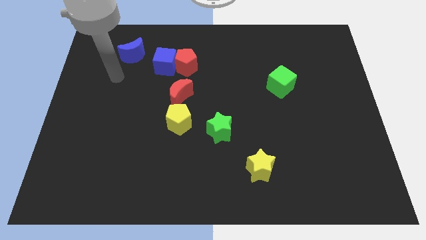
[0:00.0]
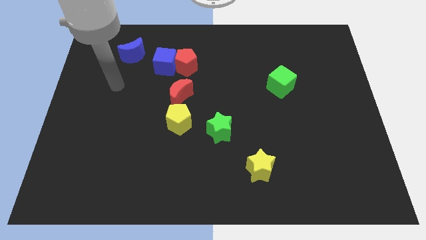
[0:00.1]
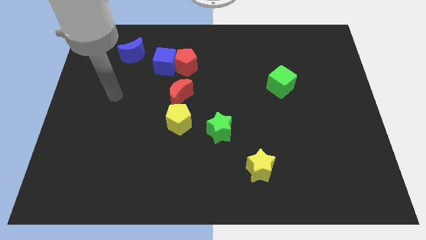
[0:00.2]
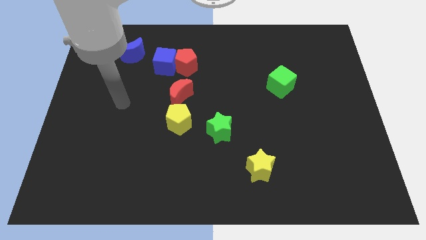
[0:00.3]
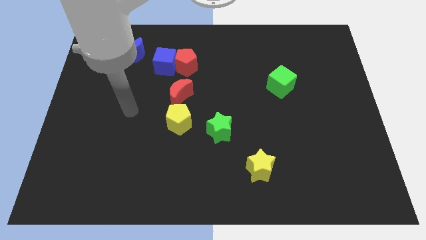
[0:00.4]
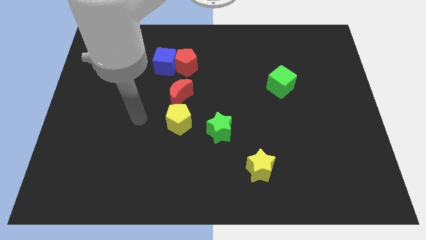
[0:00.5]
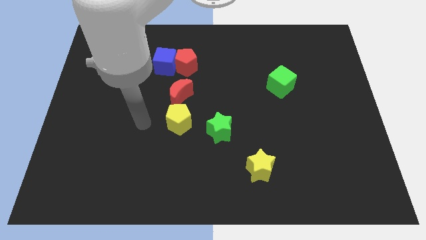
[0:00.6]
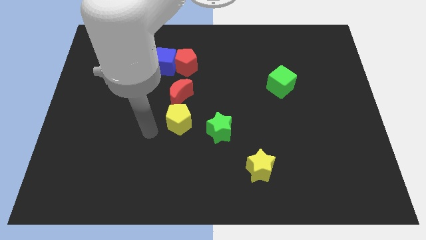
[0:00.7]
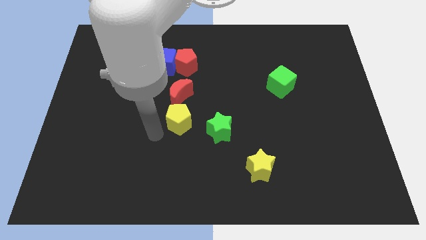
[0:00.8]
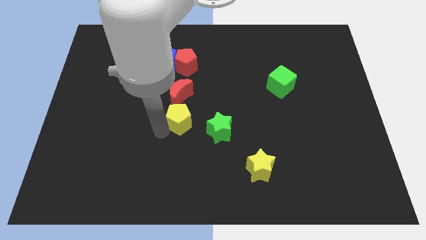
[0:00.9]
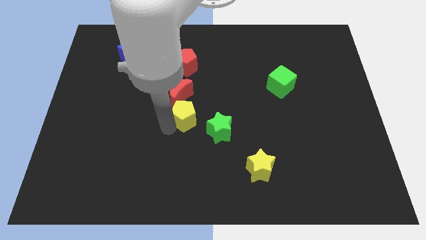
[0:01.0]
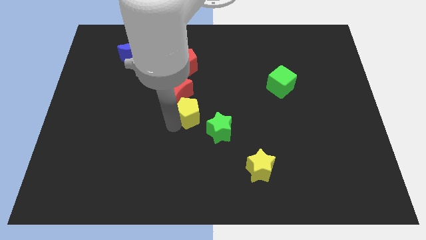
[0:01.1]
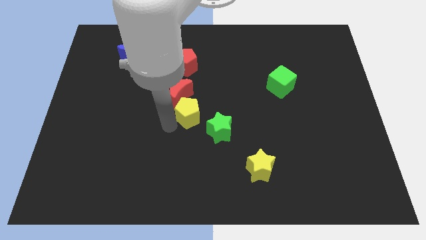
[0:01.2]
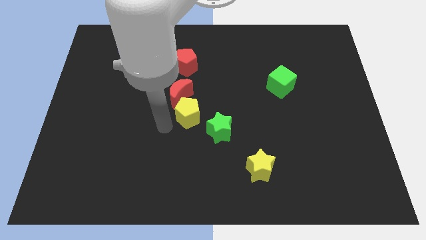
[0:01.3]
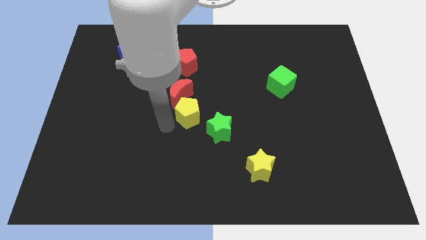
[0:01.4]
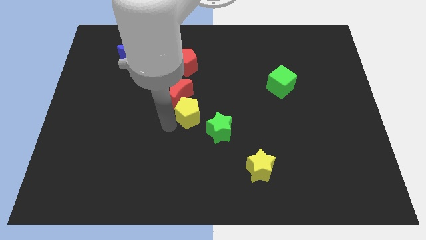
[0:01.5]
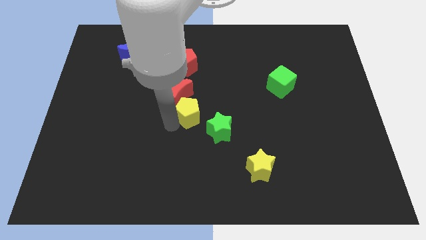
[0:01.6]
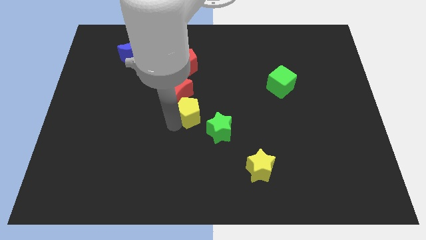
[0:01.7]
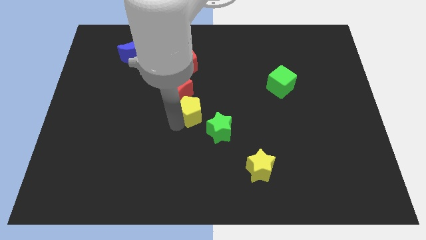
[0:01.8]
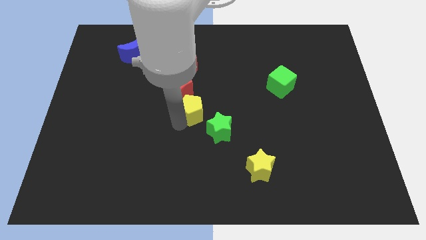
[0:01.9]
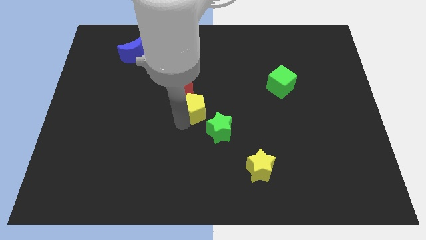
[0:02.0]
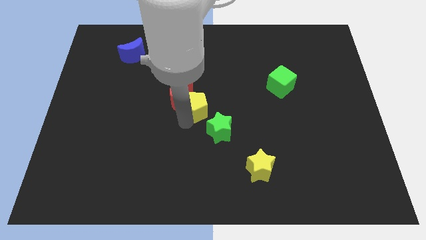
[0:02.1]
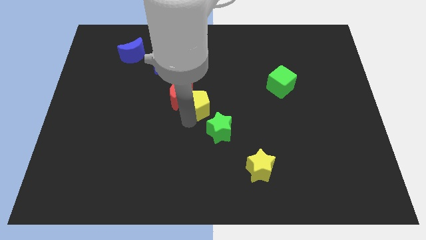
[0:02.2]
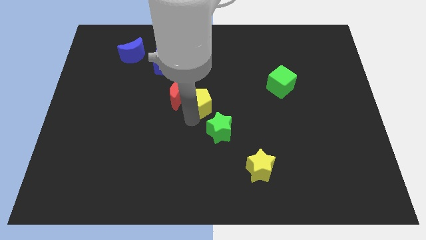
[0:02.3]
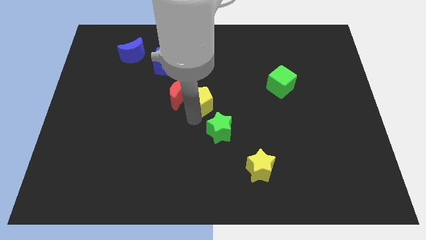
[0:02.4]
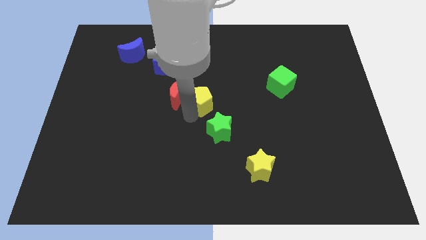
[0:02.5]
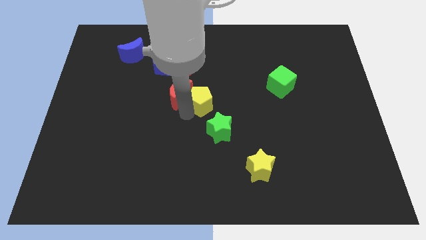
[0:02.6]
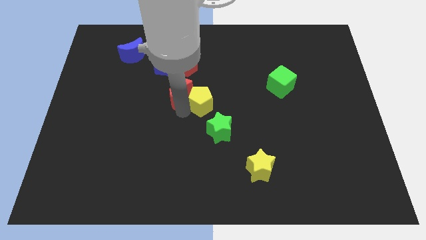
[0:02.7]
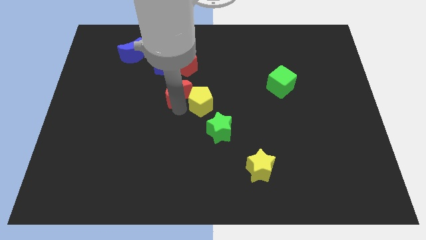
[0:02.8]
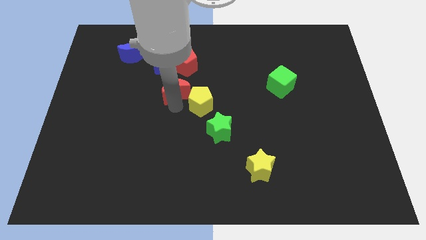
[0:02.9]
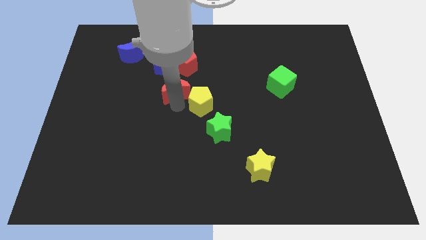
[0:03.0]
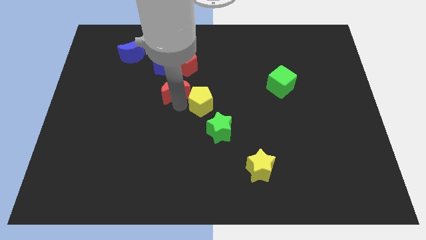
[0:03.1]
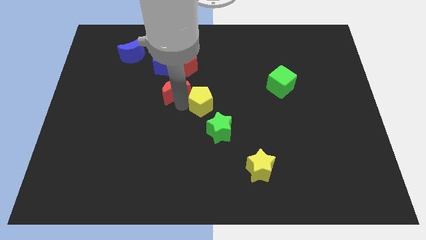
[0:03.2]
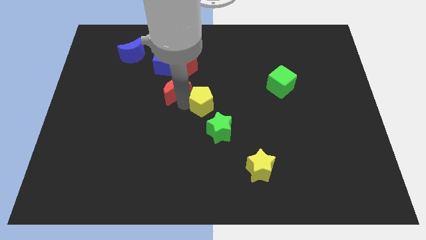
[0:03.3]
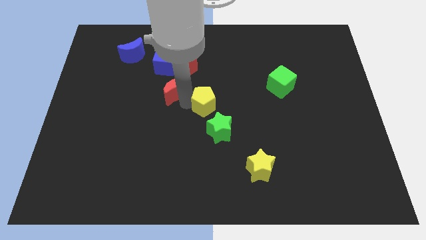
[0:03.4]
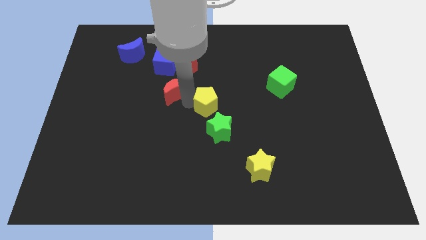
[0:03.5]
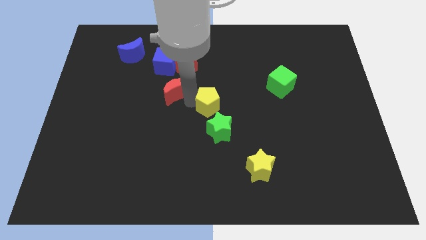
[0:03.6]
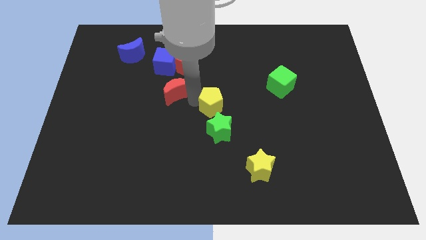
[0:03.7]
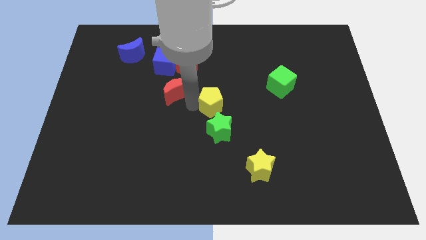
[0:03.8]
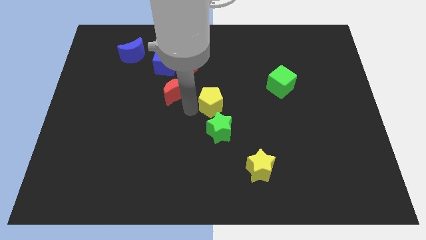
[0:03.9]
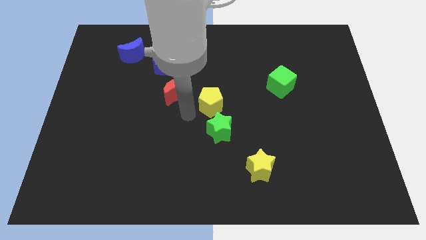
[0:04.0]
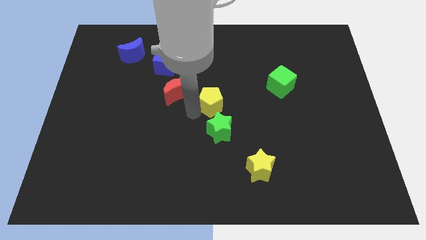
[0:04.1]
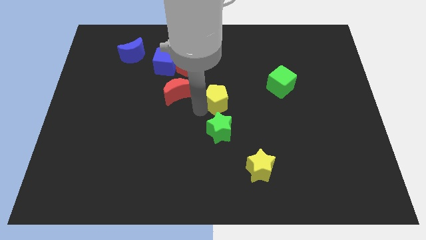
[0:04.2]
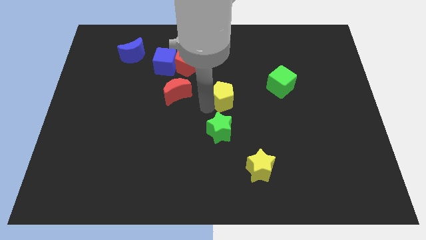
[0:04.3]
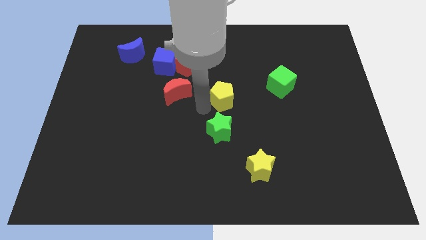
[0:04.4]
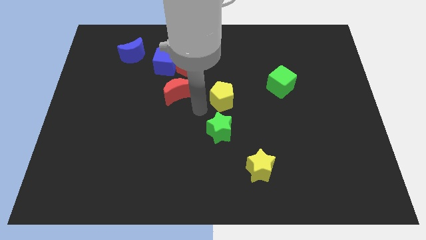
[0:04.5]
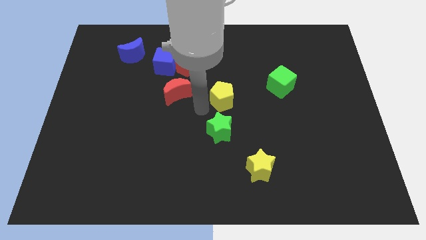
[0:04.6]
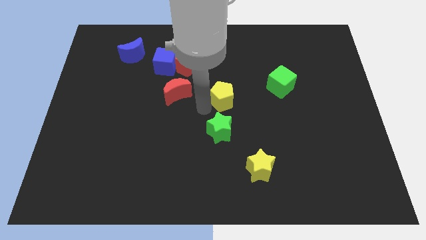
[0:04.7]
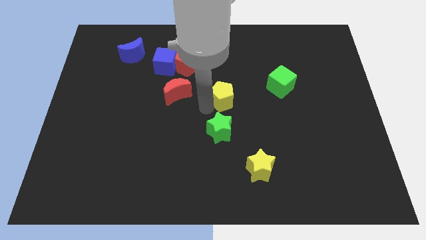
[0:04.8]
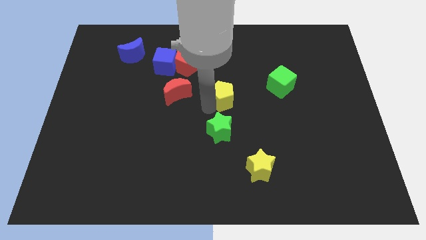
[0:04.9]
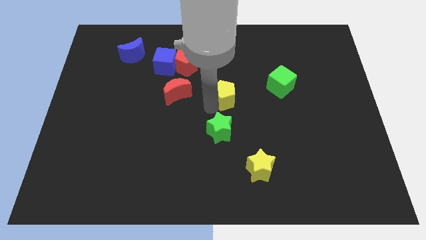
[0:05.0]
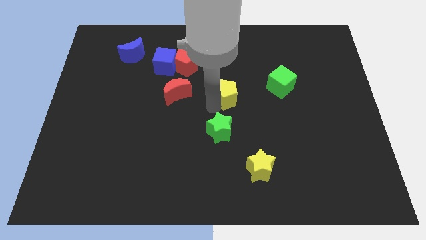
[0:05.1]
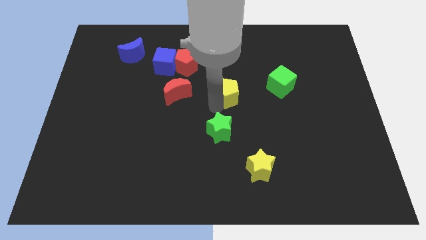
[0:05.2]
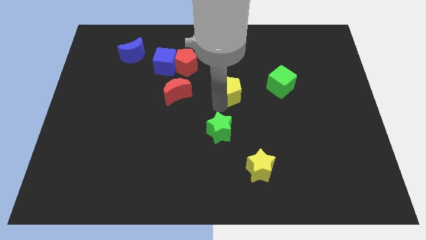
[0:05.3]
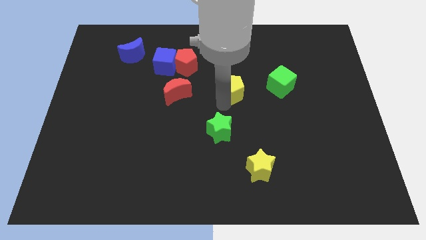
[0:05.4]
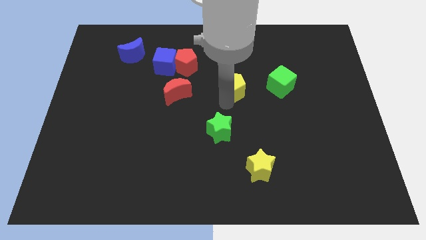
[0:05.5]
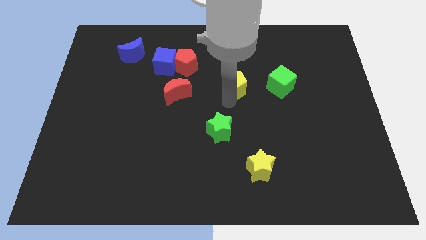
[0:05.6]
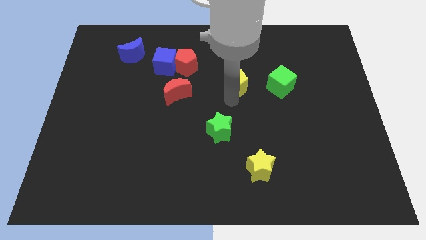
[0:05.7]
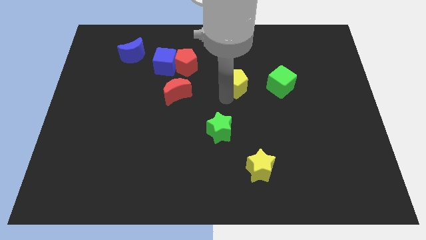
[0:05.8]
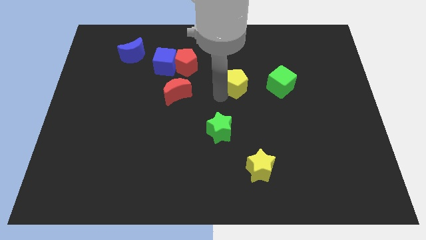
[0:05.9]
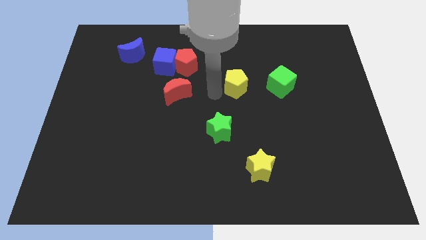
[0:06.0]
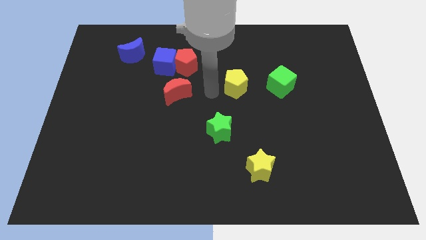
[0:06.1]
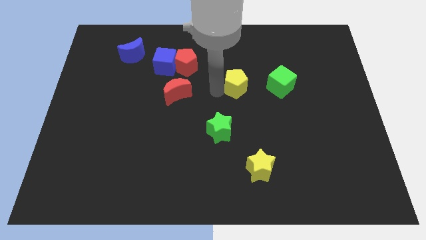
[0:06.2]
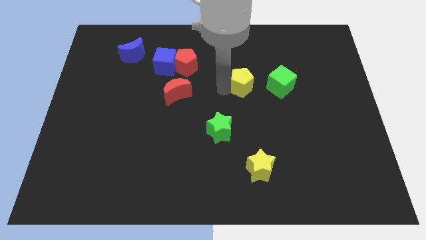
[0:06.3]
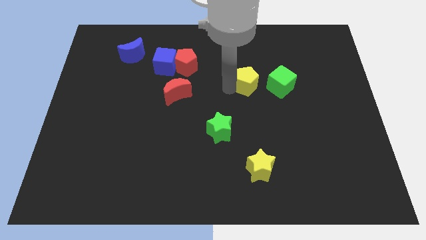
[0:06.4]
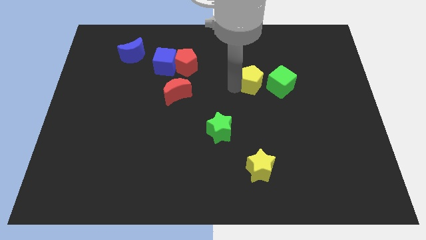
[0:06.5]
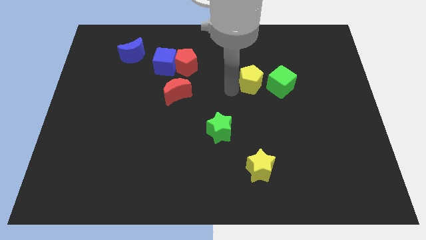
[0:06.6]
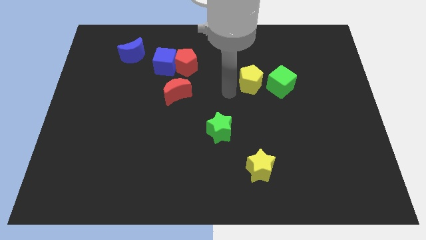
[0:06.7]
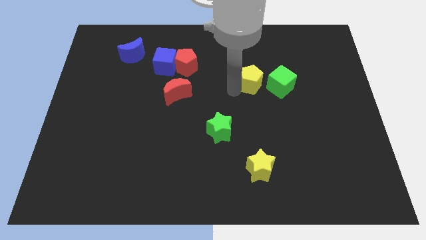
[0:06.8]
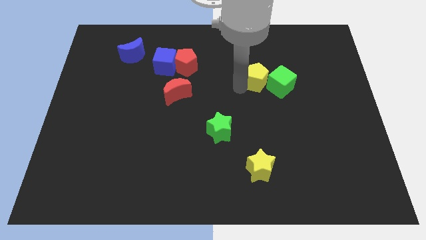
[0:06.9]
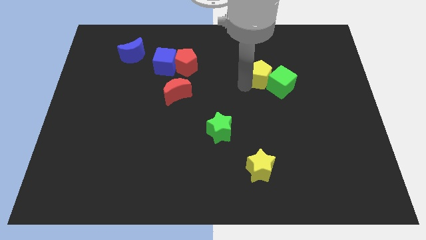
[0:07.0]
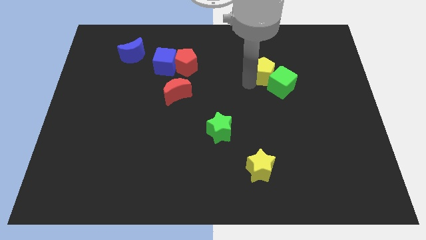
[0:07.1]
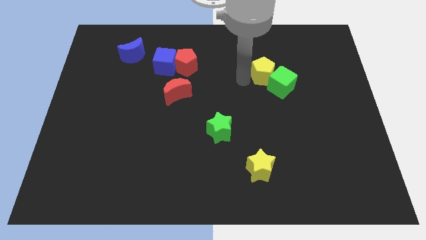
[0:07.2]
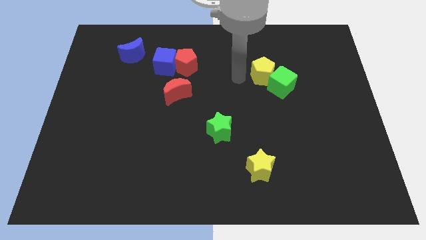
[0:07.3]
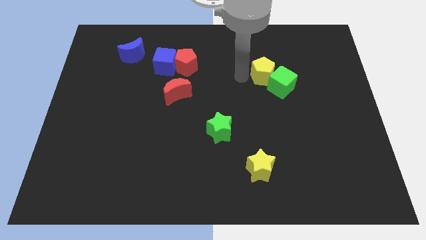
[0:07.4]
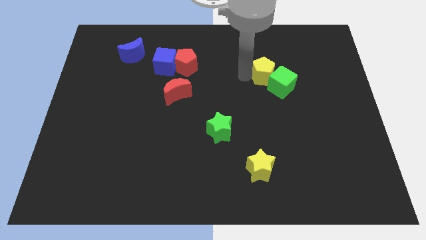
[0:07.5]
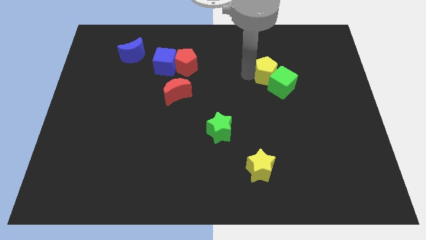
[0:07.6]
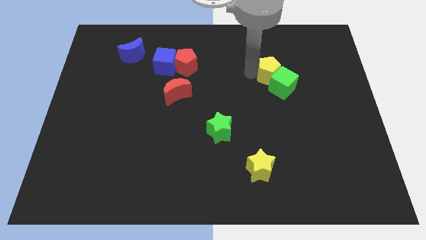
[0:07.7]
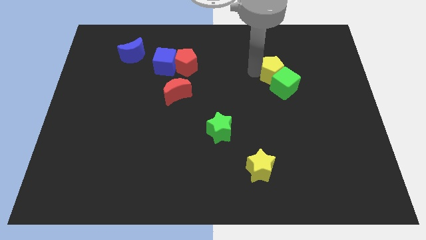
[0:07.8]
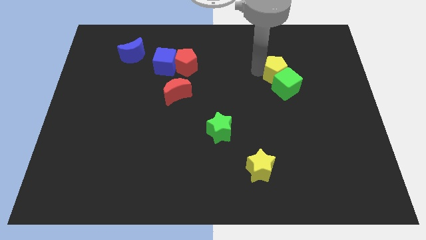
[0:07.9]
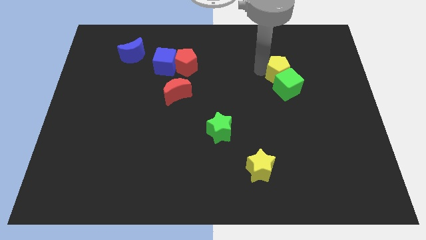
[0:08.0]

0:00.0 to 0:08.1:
move the yellow pentagon diagonally up and to the right of the green cube
